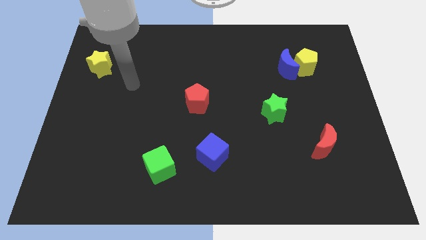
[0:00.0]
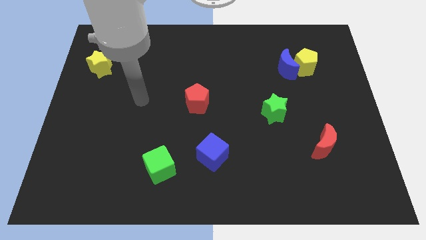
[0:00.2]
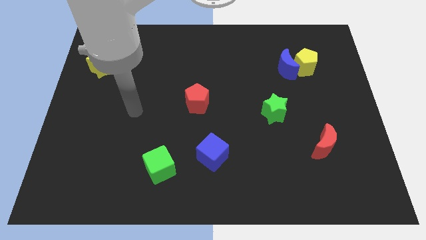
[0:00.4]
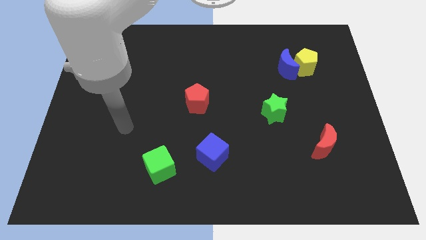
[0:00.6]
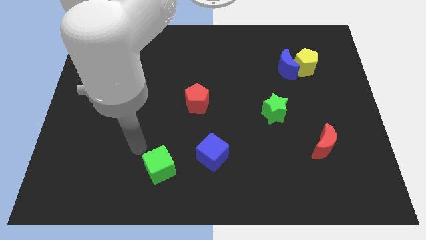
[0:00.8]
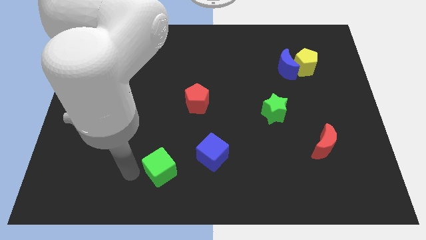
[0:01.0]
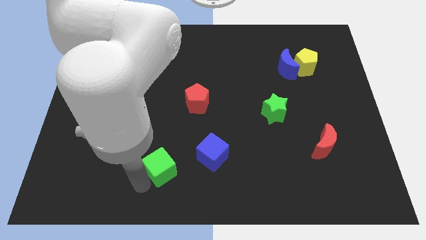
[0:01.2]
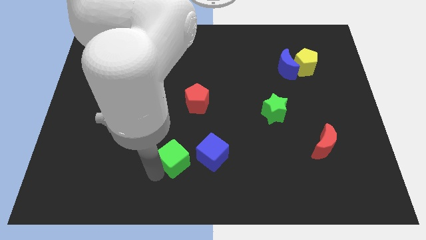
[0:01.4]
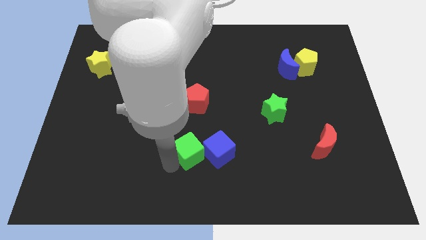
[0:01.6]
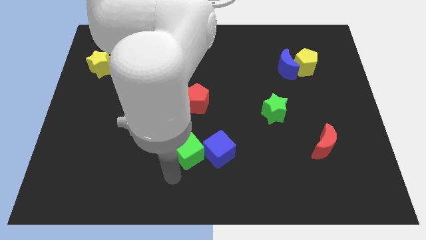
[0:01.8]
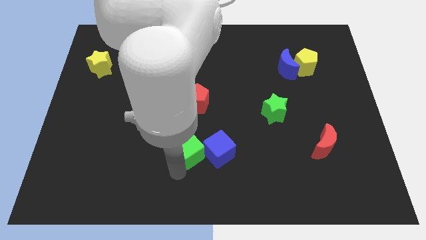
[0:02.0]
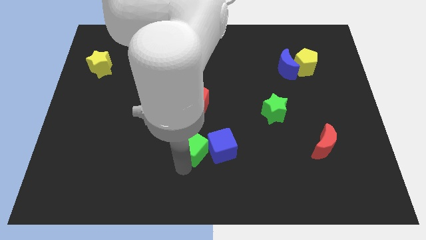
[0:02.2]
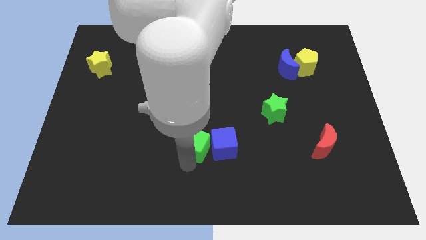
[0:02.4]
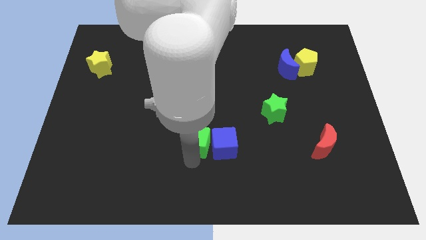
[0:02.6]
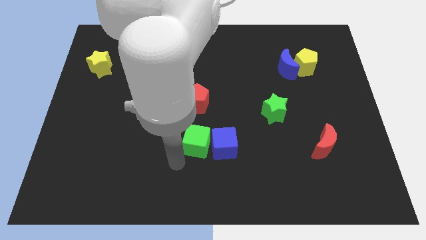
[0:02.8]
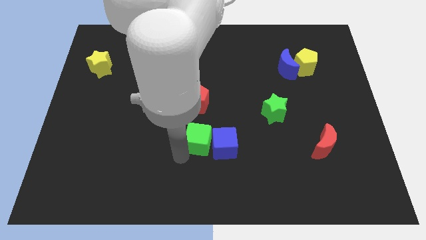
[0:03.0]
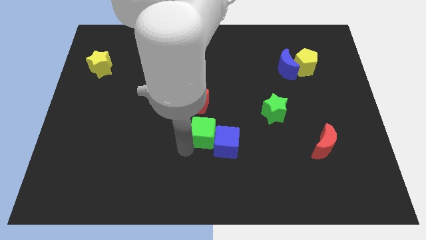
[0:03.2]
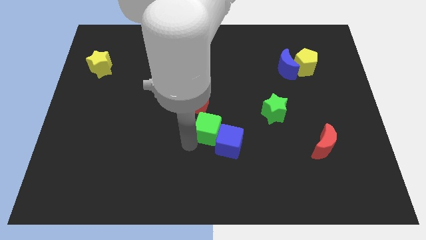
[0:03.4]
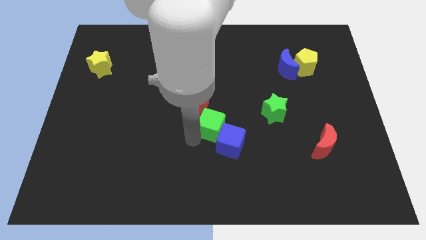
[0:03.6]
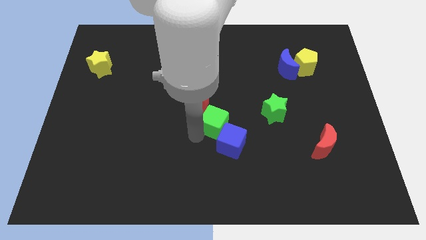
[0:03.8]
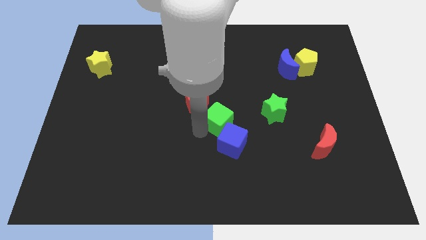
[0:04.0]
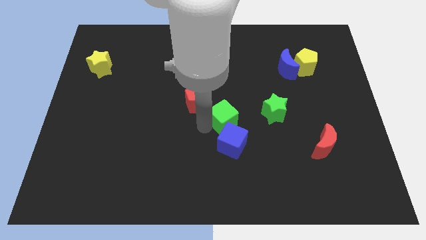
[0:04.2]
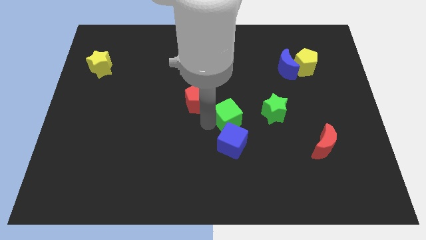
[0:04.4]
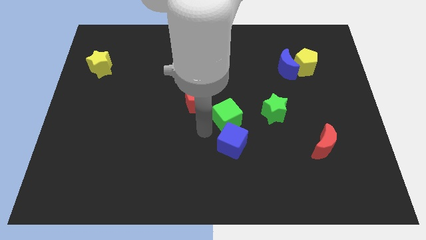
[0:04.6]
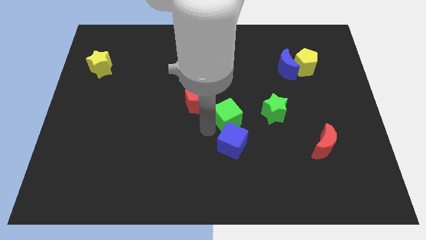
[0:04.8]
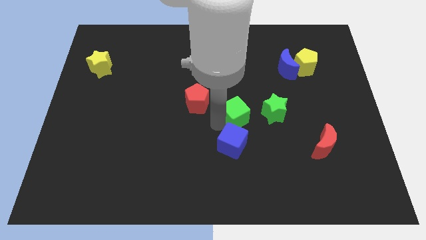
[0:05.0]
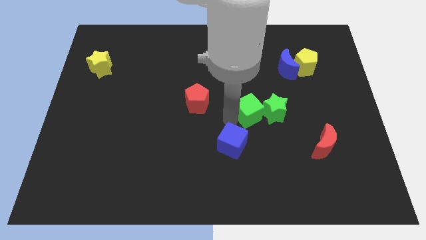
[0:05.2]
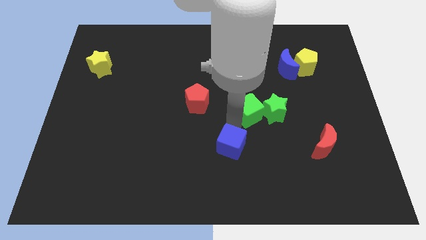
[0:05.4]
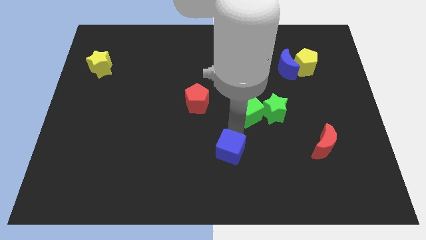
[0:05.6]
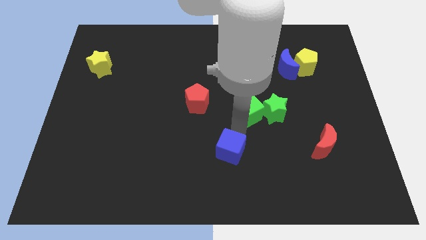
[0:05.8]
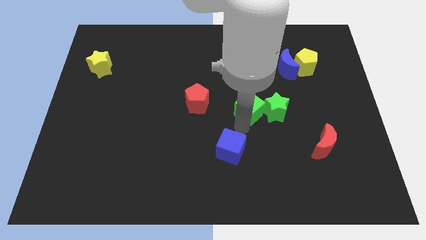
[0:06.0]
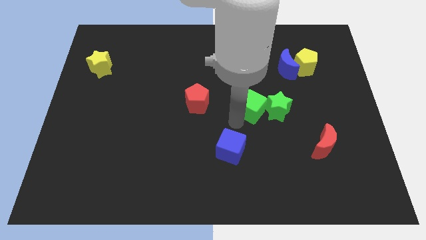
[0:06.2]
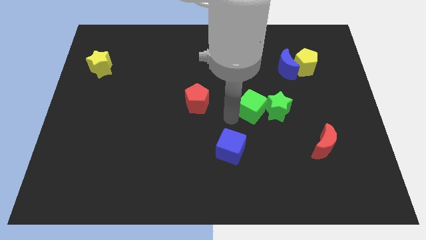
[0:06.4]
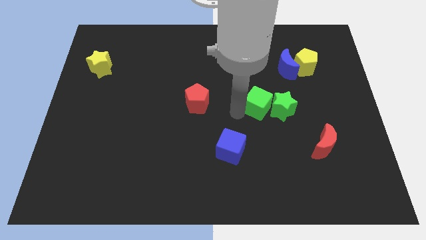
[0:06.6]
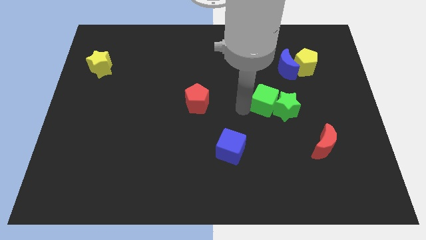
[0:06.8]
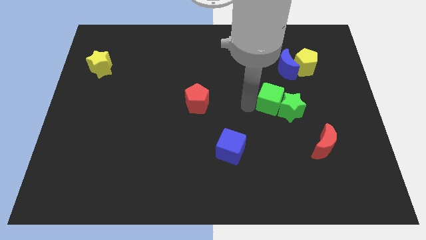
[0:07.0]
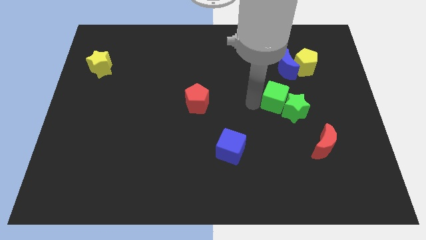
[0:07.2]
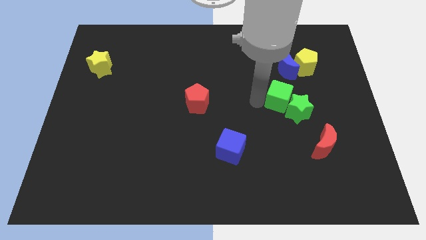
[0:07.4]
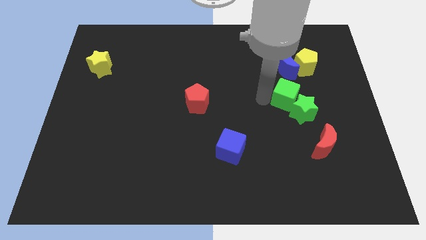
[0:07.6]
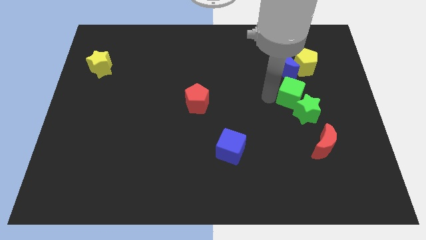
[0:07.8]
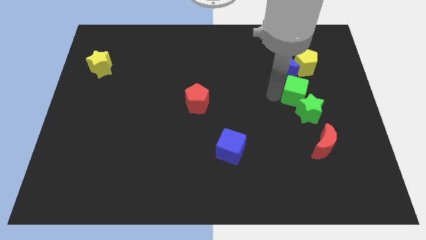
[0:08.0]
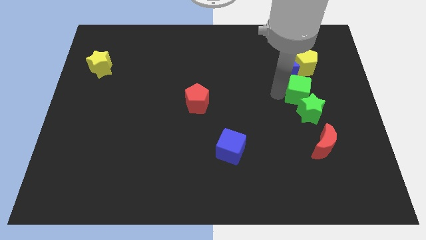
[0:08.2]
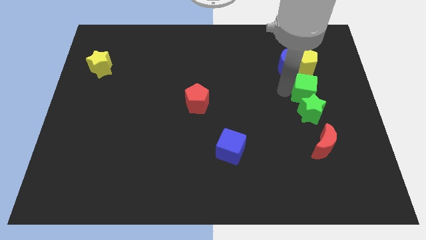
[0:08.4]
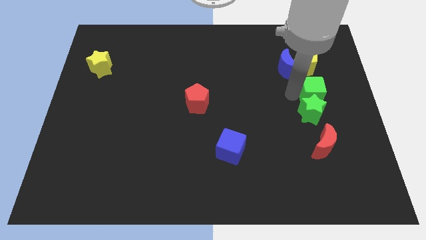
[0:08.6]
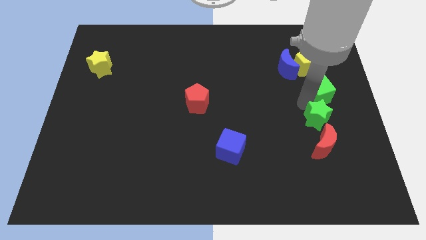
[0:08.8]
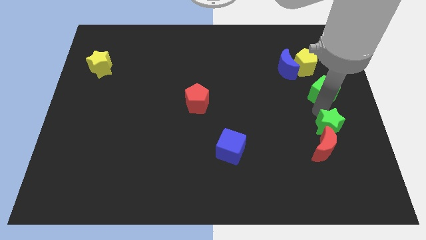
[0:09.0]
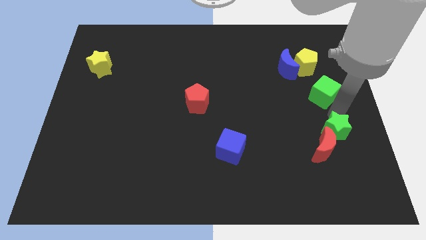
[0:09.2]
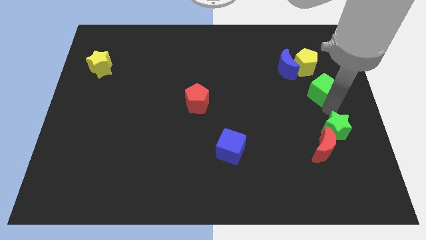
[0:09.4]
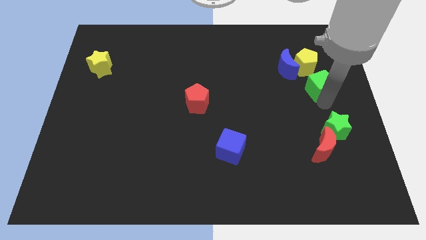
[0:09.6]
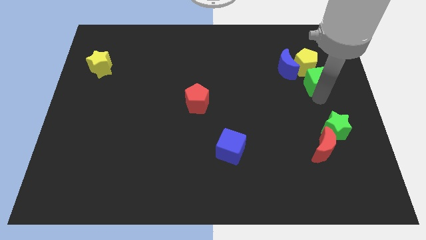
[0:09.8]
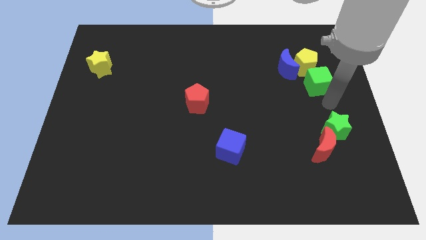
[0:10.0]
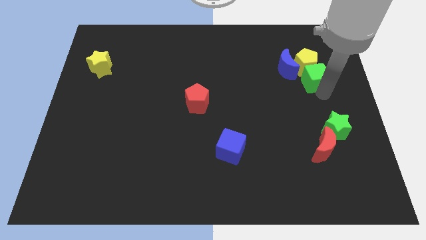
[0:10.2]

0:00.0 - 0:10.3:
push the green cube close to the yellow pentagon

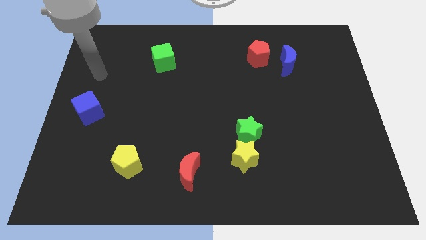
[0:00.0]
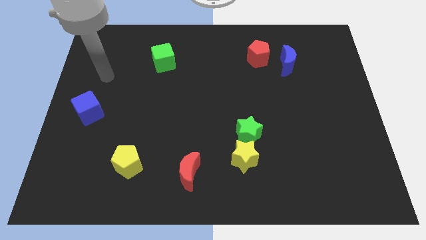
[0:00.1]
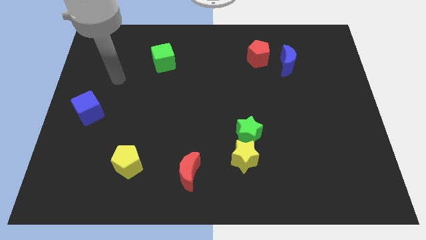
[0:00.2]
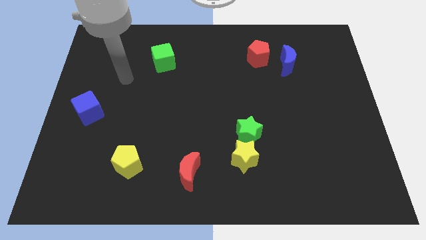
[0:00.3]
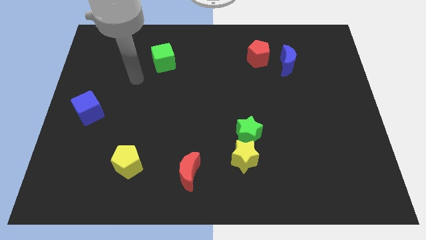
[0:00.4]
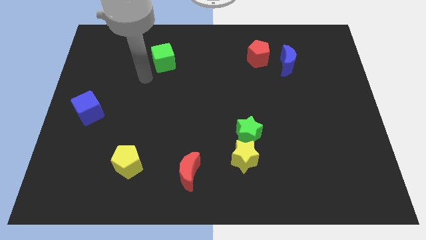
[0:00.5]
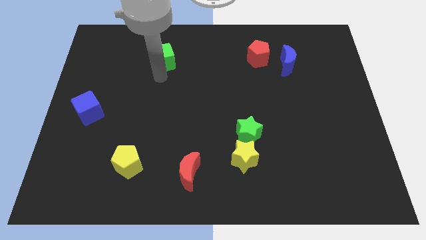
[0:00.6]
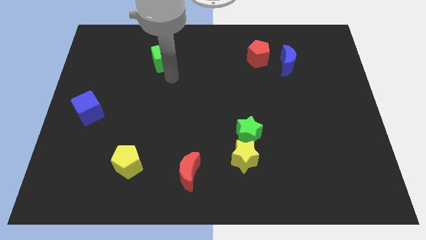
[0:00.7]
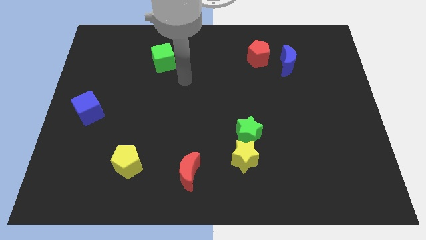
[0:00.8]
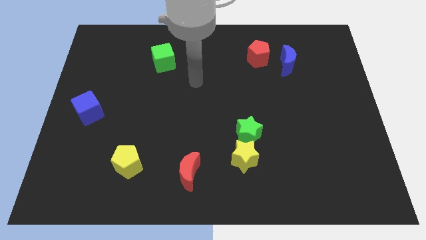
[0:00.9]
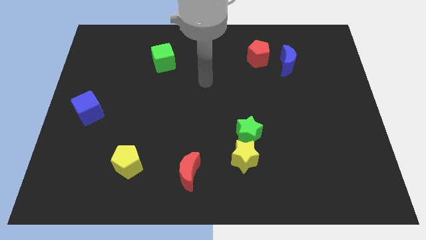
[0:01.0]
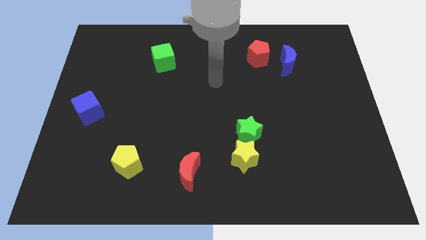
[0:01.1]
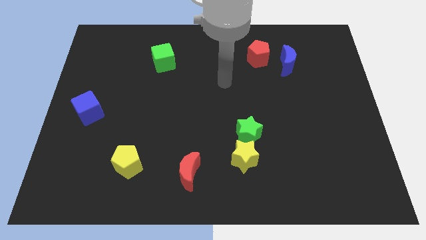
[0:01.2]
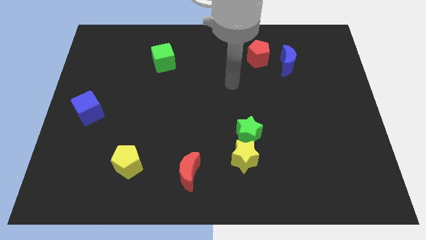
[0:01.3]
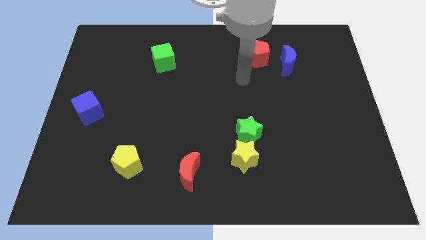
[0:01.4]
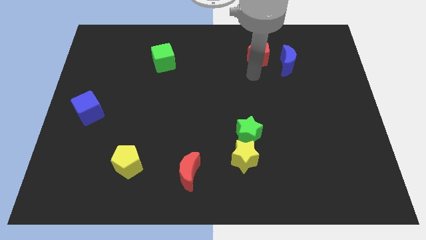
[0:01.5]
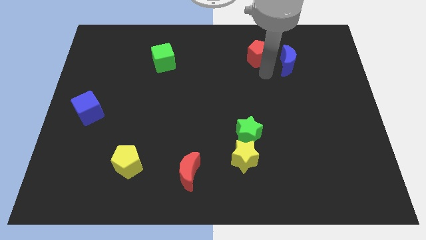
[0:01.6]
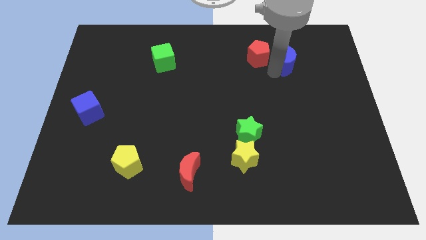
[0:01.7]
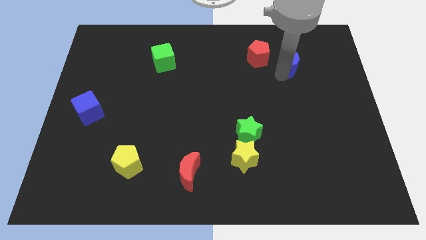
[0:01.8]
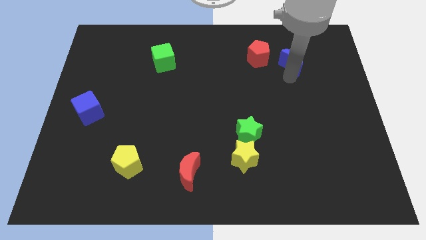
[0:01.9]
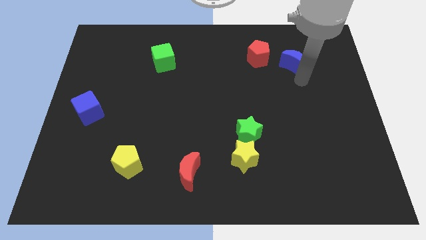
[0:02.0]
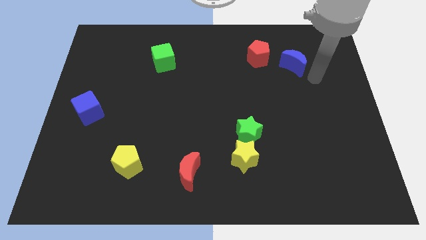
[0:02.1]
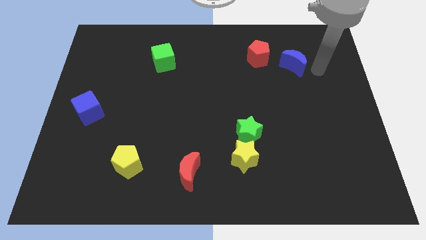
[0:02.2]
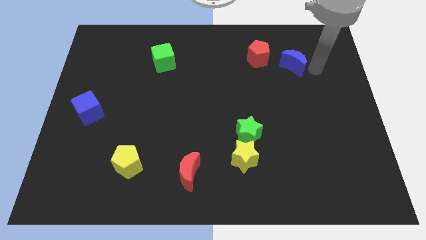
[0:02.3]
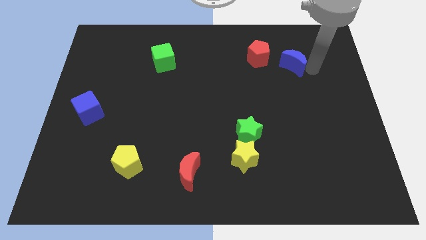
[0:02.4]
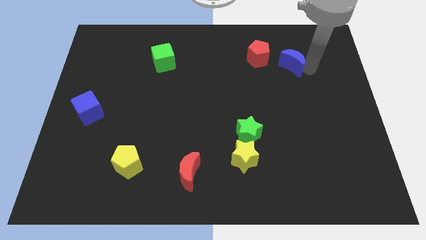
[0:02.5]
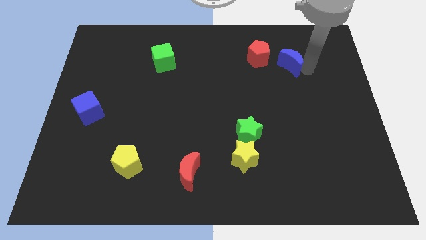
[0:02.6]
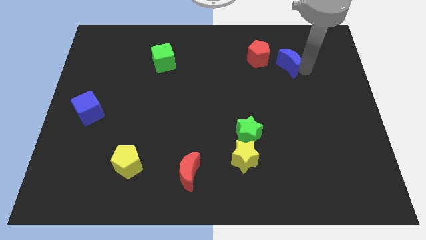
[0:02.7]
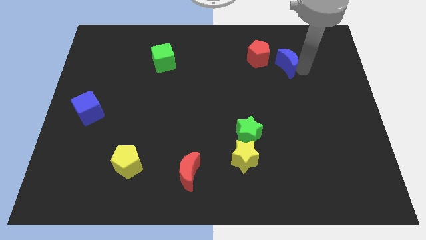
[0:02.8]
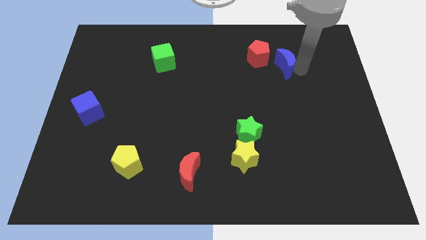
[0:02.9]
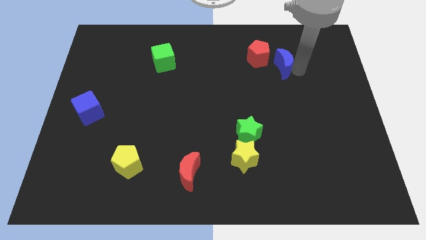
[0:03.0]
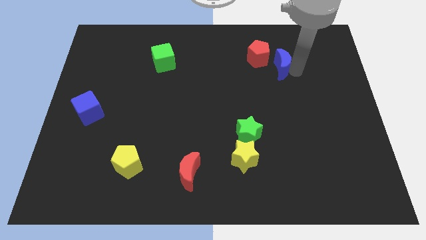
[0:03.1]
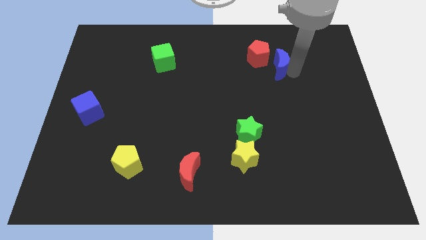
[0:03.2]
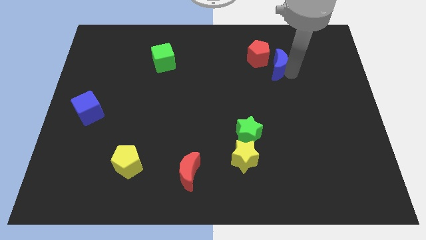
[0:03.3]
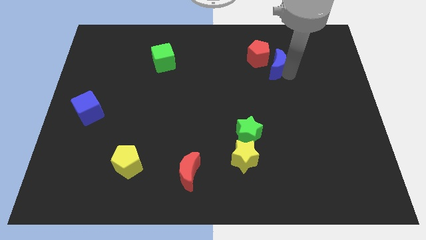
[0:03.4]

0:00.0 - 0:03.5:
push the blue moon next to the red pentagon
